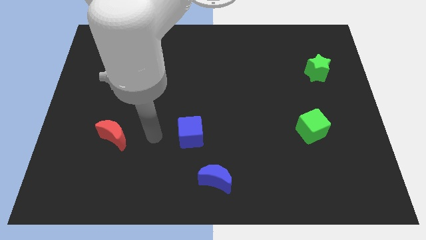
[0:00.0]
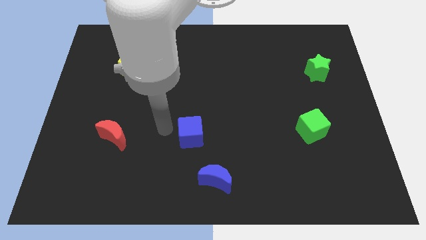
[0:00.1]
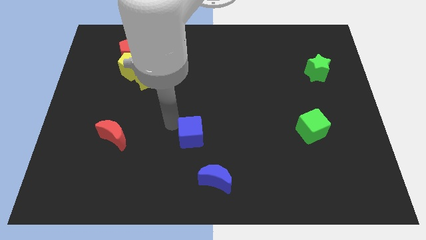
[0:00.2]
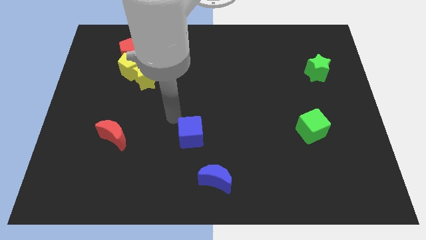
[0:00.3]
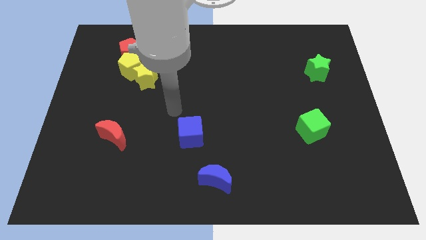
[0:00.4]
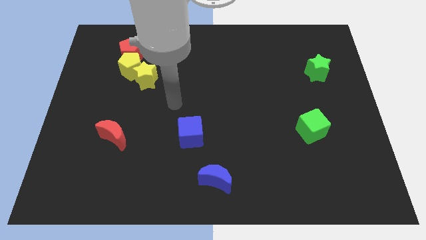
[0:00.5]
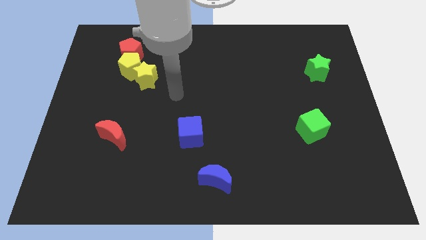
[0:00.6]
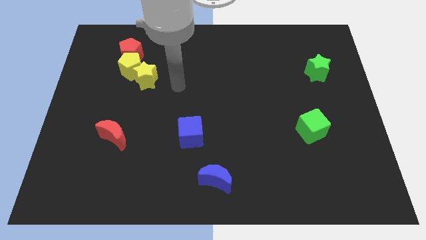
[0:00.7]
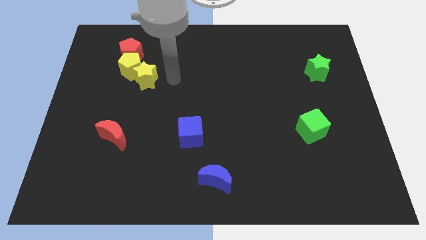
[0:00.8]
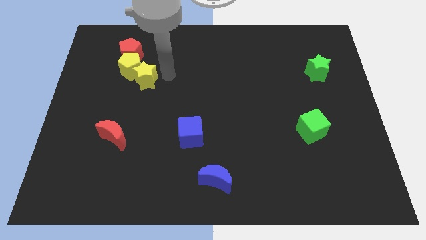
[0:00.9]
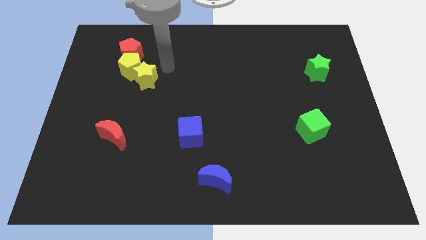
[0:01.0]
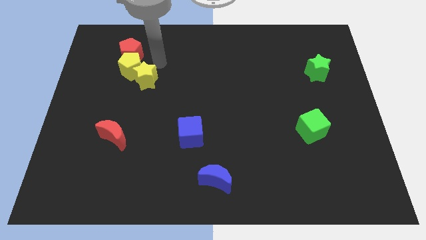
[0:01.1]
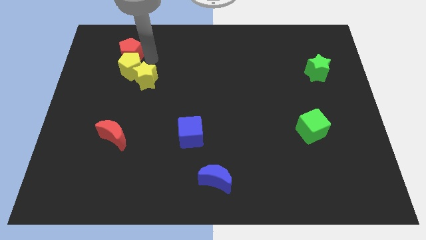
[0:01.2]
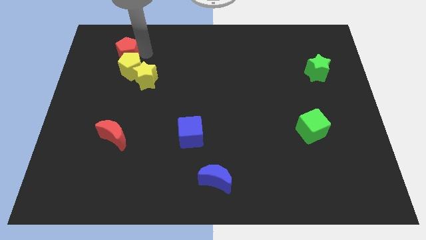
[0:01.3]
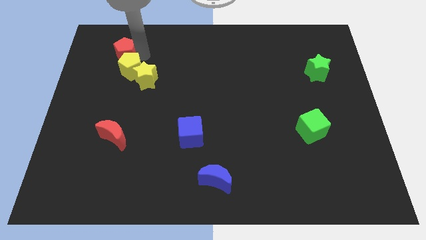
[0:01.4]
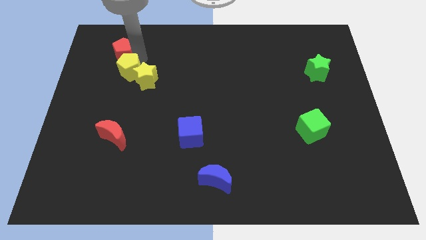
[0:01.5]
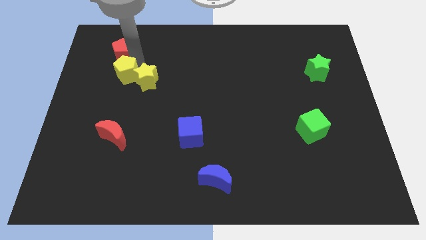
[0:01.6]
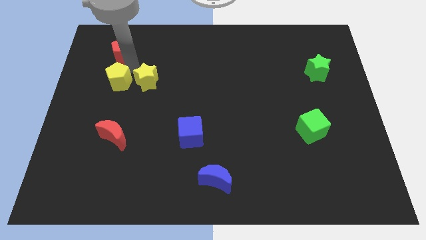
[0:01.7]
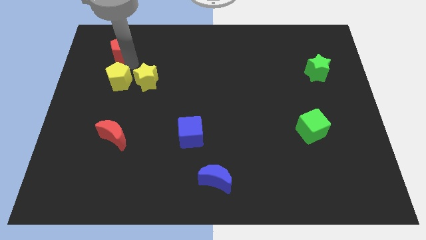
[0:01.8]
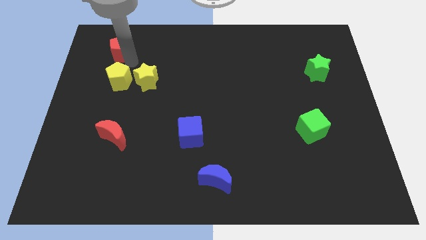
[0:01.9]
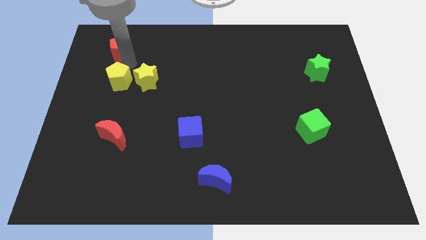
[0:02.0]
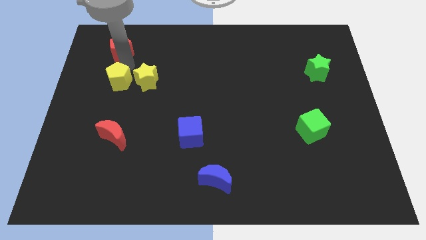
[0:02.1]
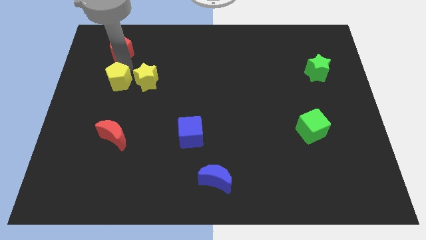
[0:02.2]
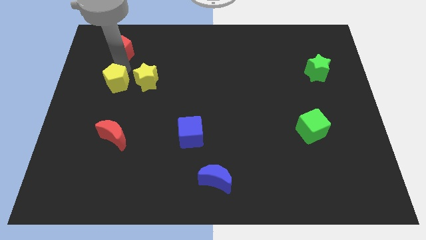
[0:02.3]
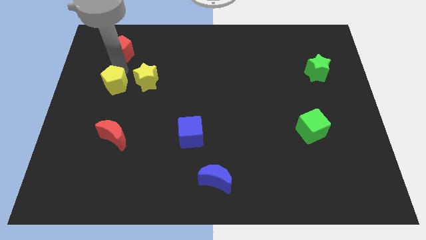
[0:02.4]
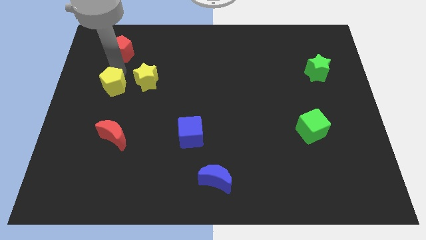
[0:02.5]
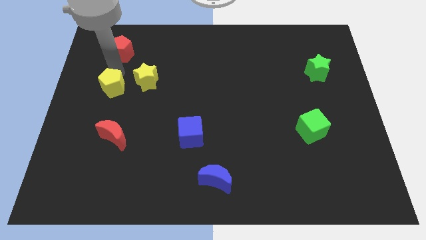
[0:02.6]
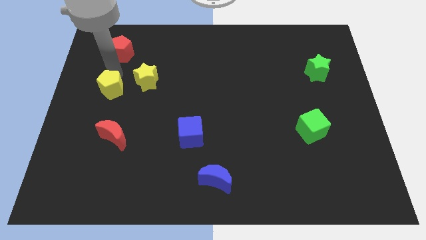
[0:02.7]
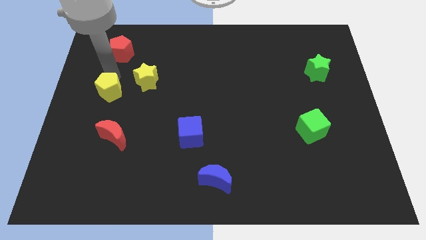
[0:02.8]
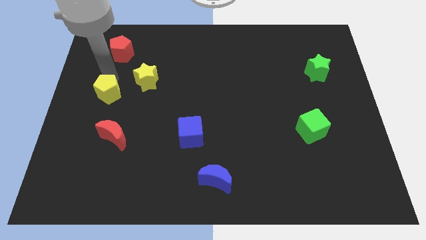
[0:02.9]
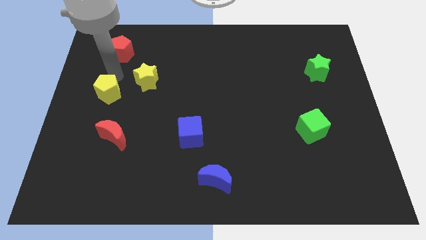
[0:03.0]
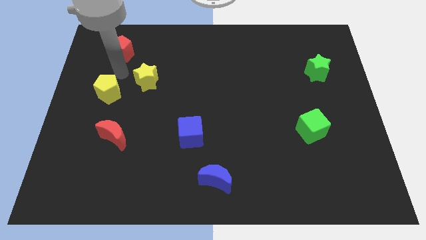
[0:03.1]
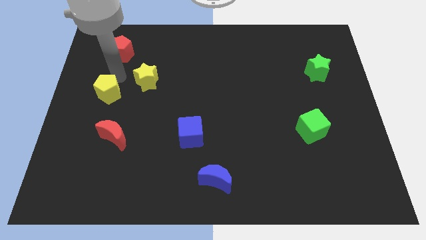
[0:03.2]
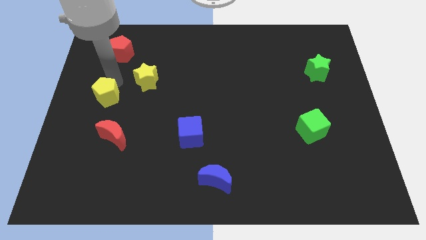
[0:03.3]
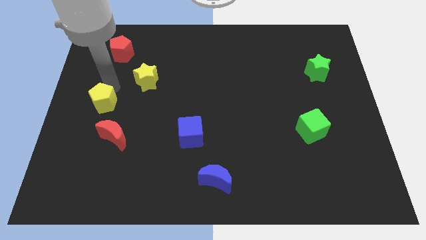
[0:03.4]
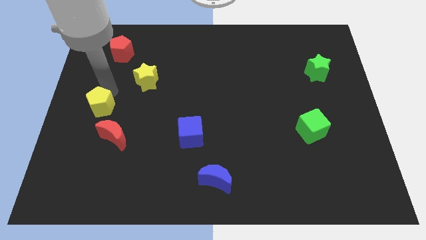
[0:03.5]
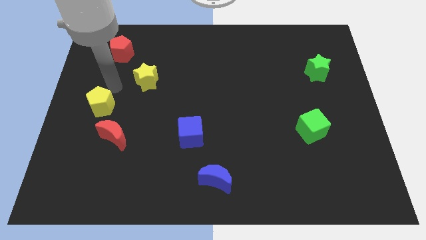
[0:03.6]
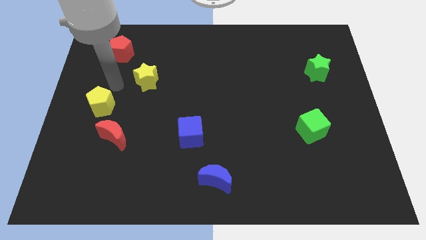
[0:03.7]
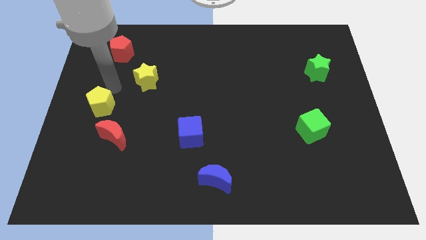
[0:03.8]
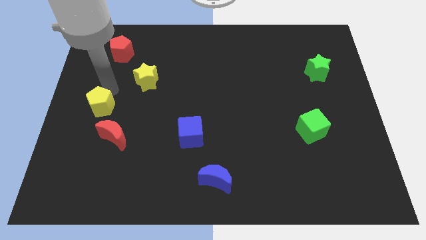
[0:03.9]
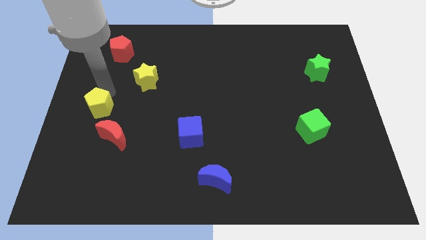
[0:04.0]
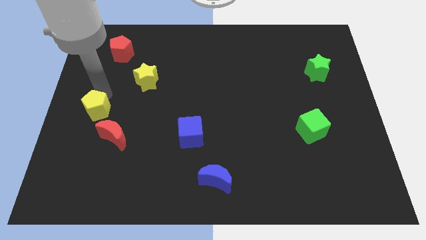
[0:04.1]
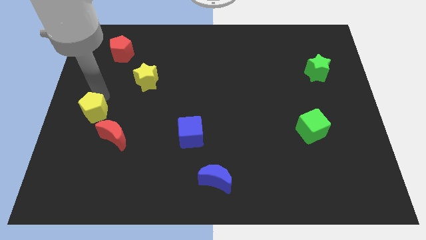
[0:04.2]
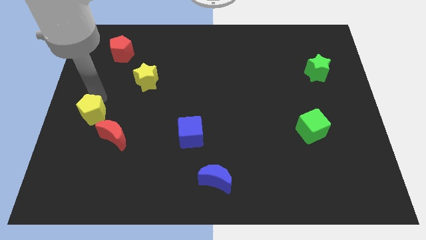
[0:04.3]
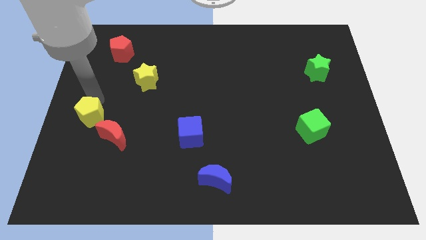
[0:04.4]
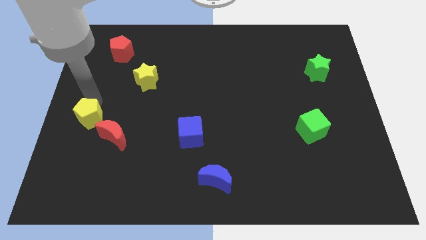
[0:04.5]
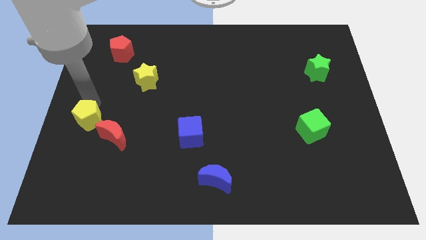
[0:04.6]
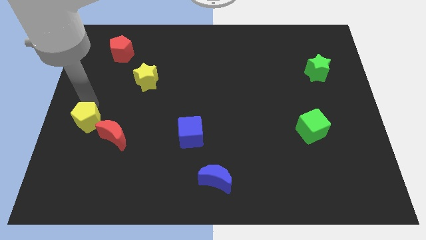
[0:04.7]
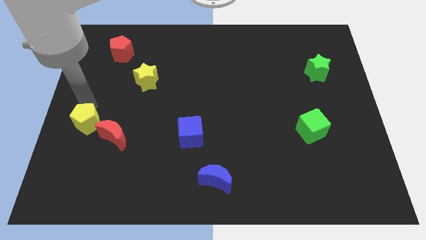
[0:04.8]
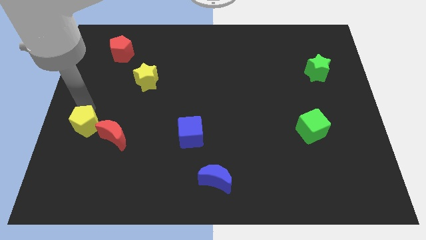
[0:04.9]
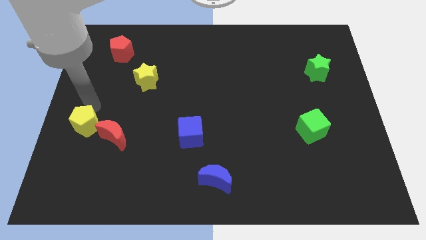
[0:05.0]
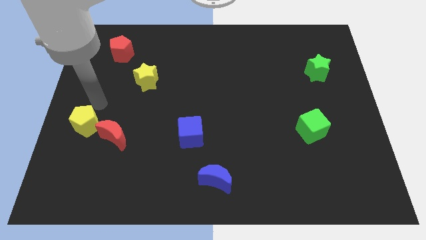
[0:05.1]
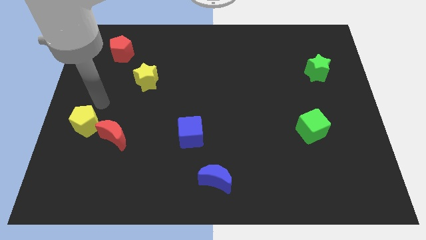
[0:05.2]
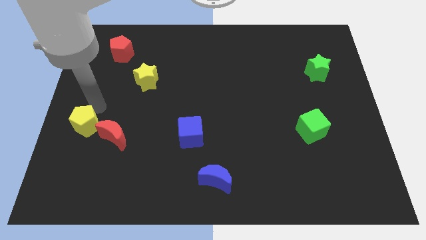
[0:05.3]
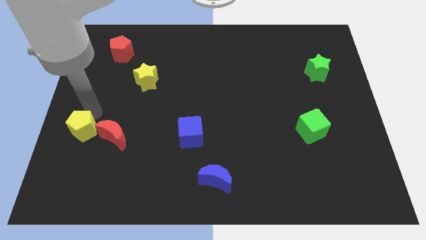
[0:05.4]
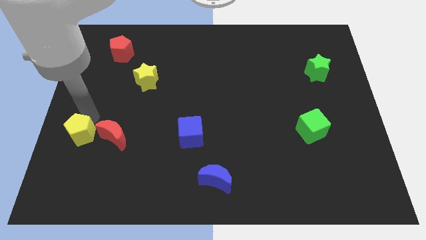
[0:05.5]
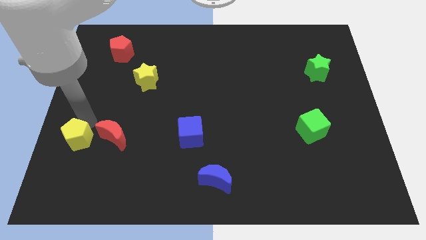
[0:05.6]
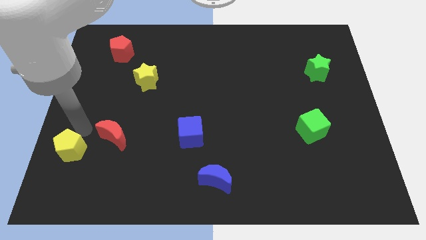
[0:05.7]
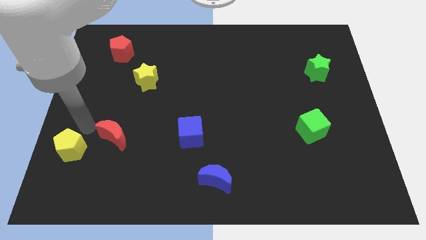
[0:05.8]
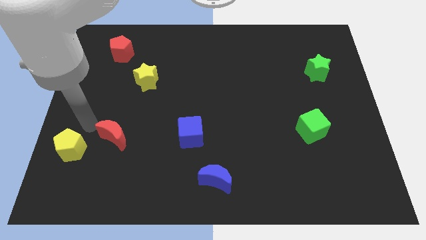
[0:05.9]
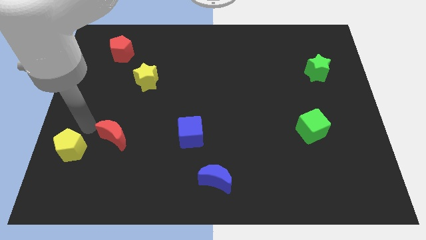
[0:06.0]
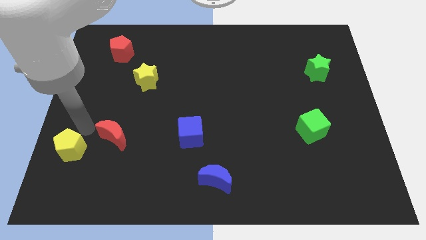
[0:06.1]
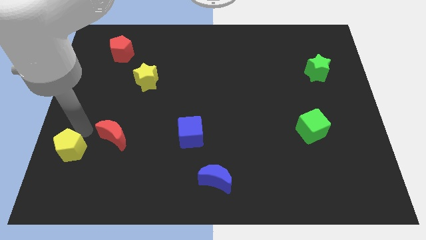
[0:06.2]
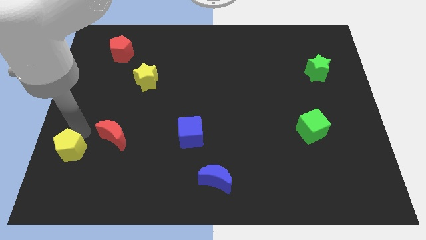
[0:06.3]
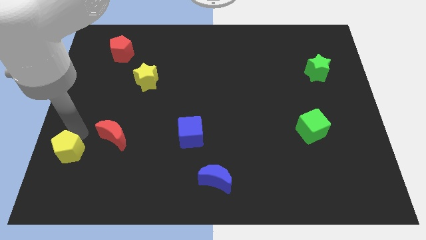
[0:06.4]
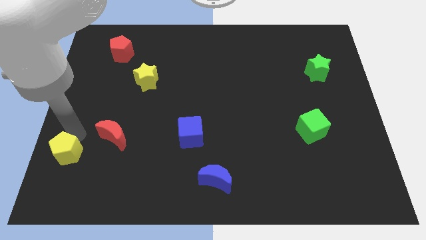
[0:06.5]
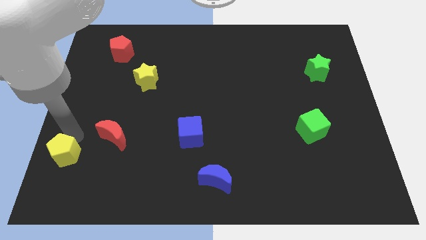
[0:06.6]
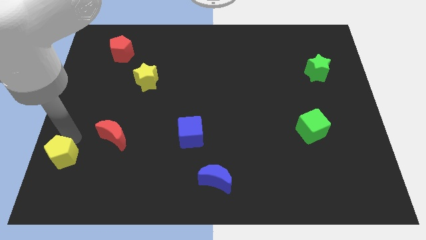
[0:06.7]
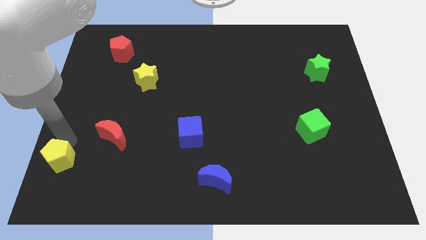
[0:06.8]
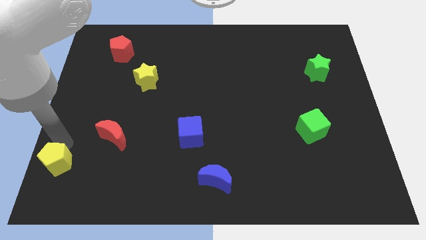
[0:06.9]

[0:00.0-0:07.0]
move the yellow pentagon to the lower left corner
